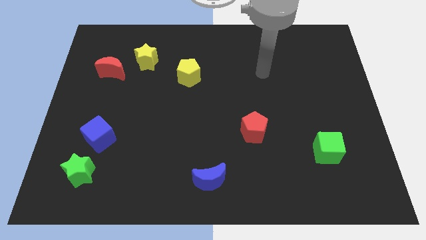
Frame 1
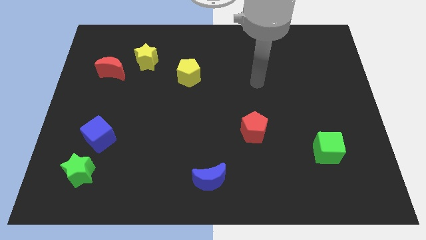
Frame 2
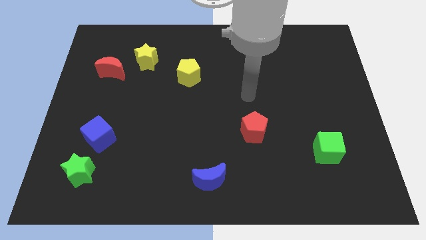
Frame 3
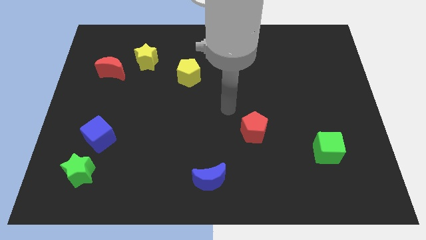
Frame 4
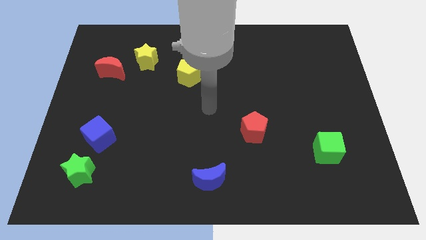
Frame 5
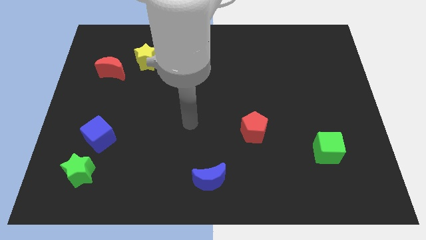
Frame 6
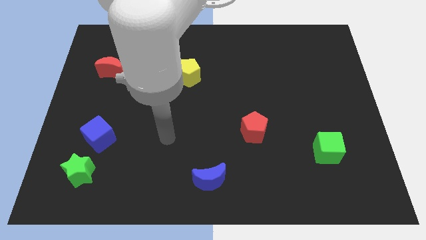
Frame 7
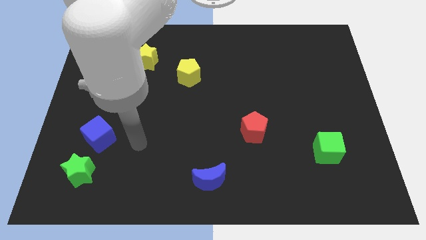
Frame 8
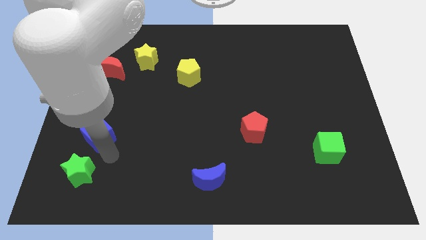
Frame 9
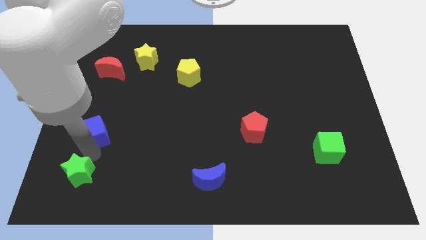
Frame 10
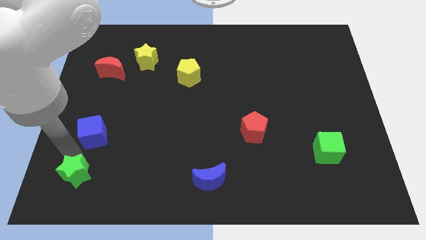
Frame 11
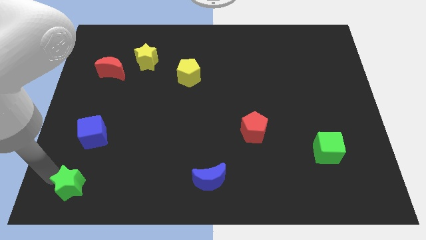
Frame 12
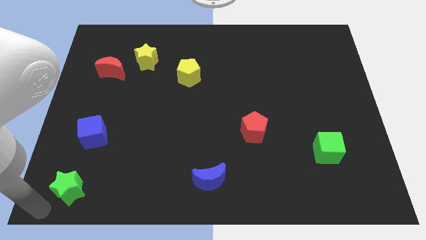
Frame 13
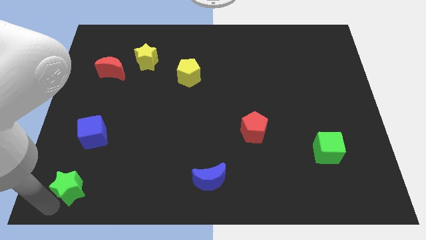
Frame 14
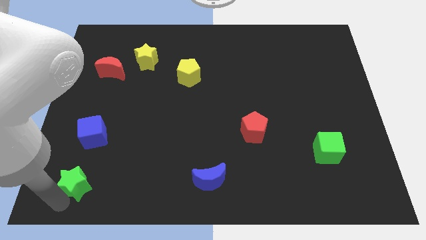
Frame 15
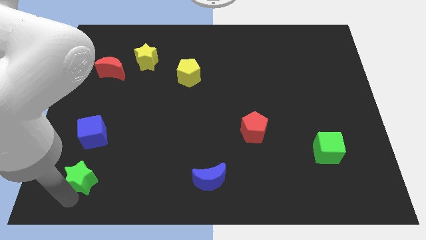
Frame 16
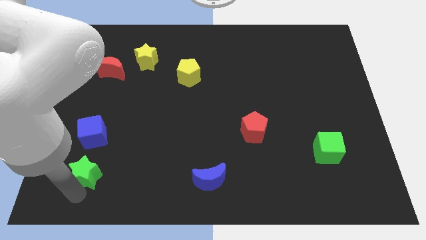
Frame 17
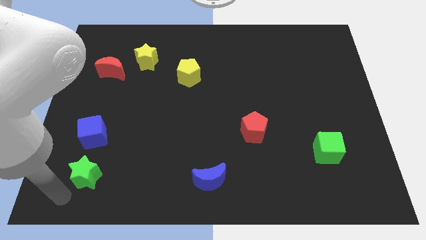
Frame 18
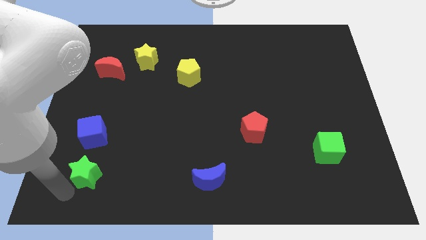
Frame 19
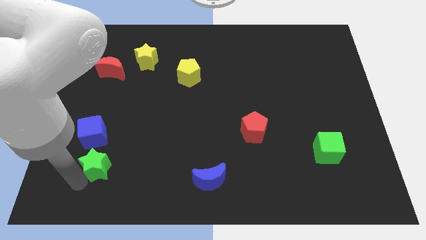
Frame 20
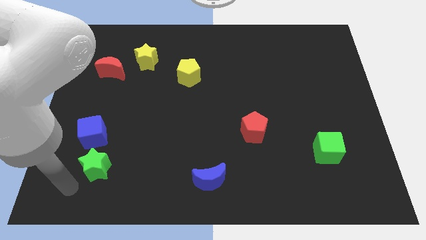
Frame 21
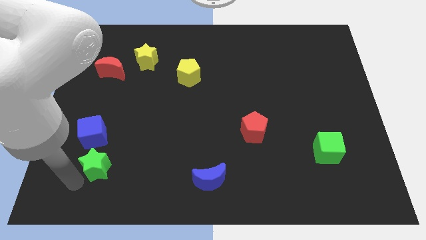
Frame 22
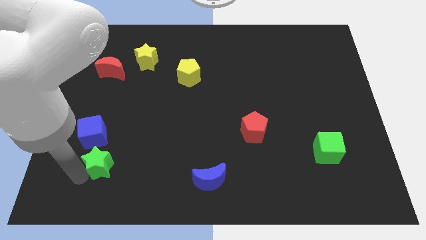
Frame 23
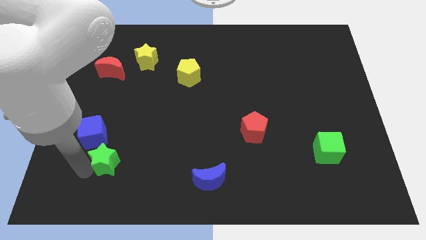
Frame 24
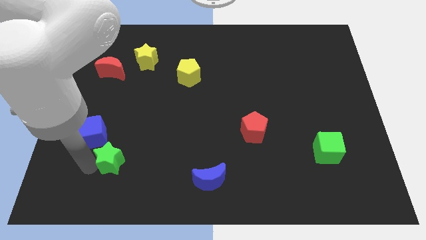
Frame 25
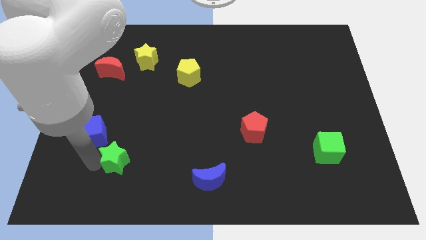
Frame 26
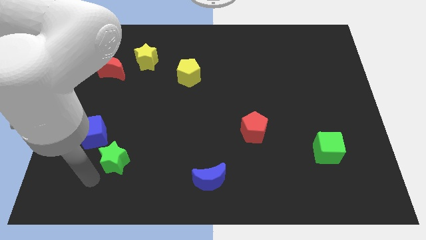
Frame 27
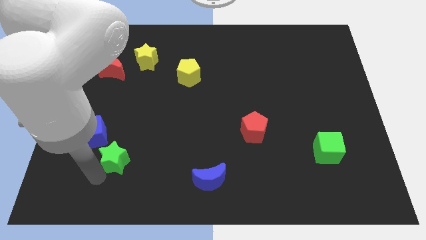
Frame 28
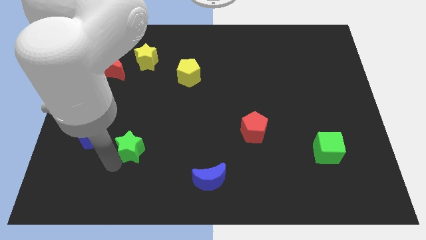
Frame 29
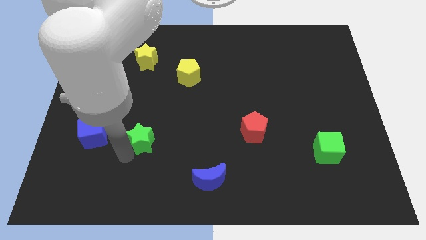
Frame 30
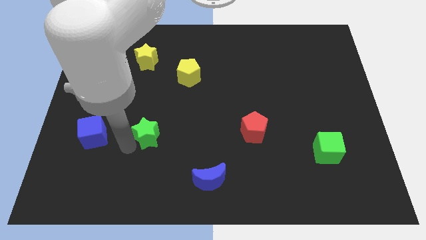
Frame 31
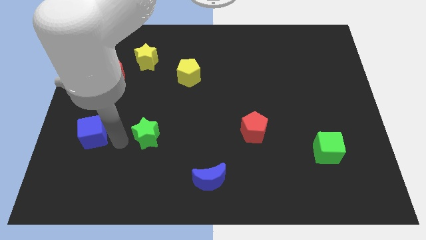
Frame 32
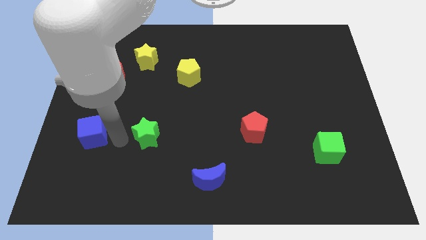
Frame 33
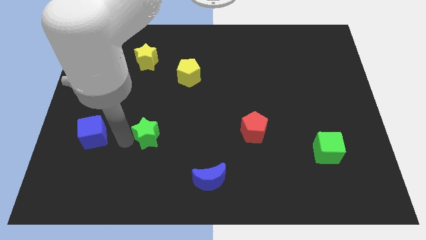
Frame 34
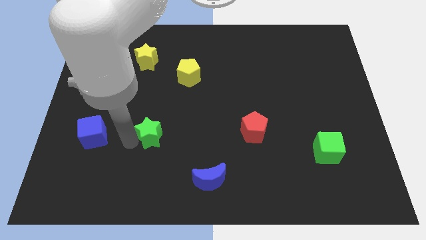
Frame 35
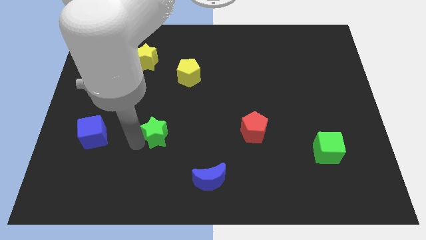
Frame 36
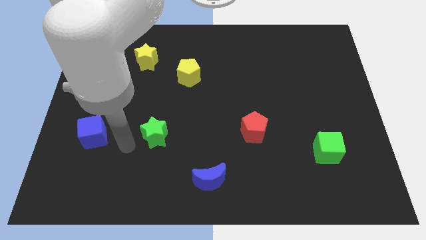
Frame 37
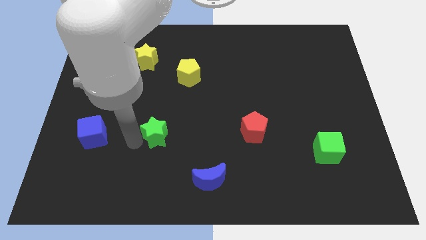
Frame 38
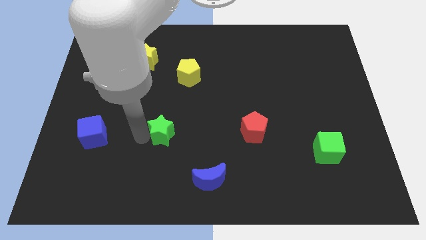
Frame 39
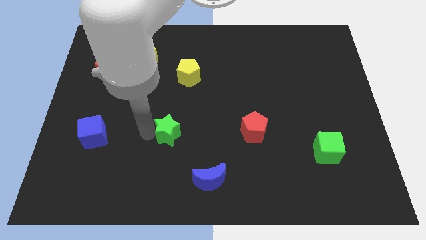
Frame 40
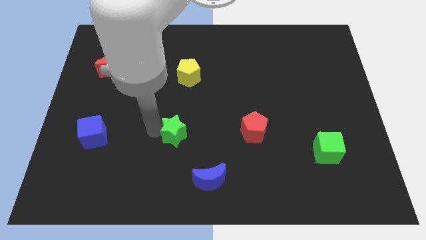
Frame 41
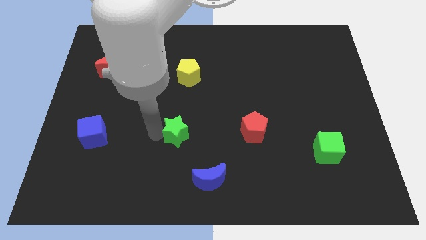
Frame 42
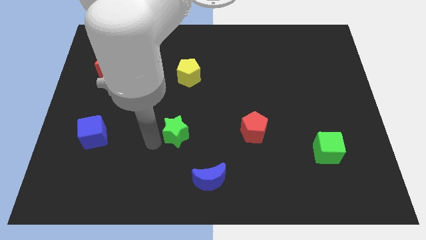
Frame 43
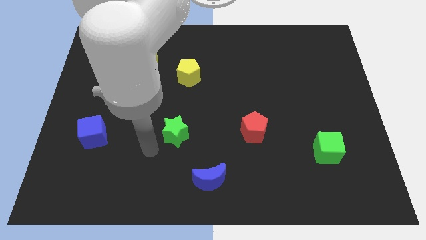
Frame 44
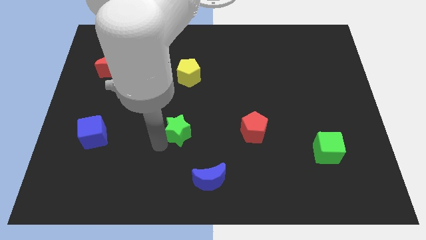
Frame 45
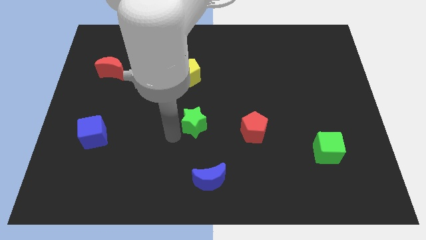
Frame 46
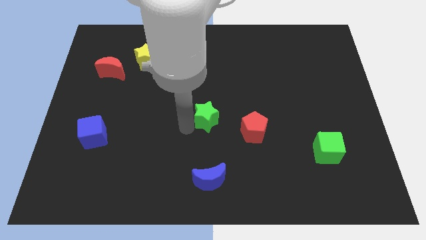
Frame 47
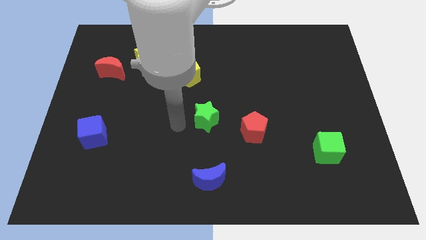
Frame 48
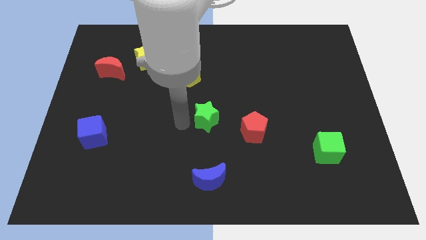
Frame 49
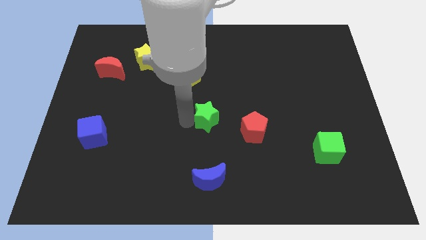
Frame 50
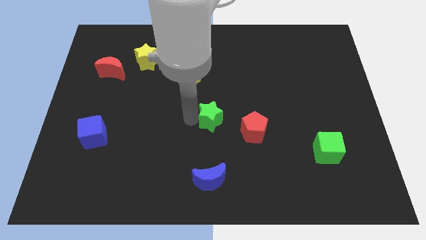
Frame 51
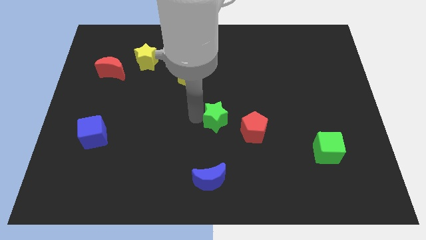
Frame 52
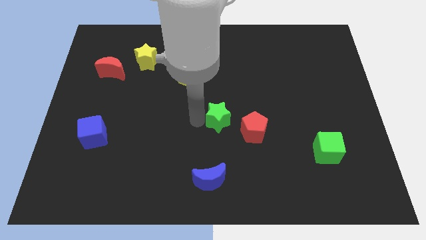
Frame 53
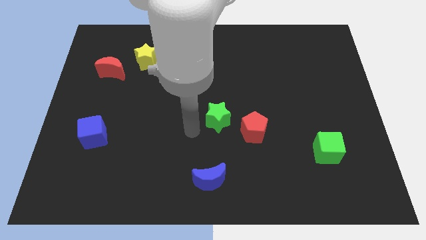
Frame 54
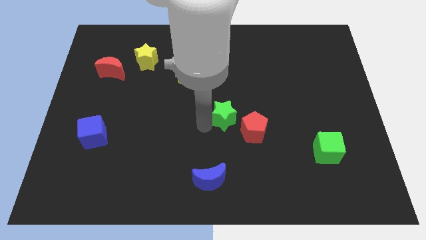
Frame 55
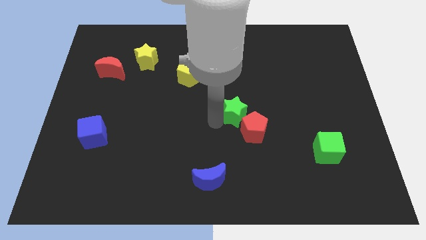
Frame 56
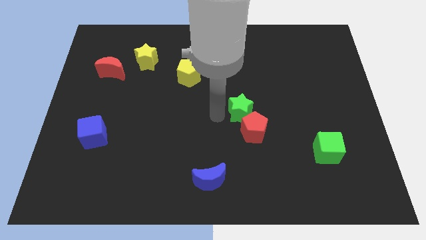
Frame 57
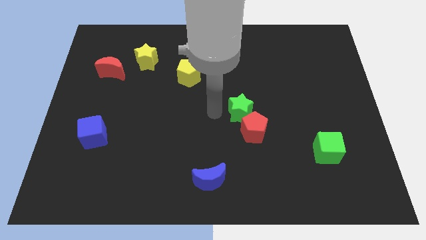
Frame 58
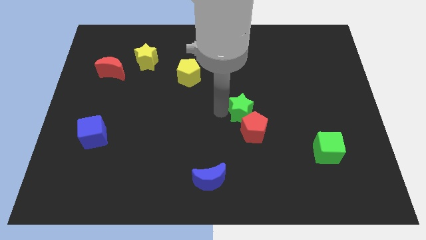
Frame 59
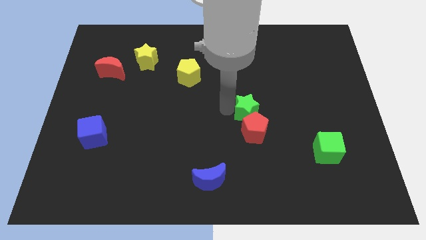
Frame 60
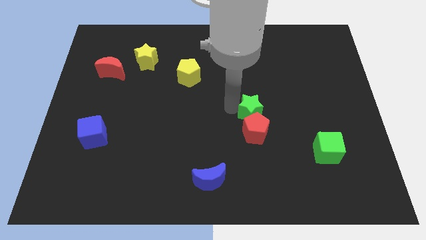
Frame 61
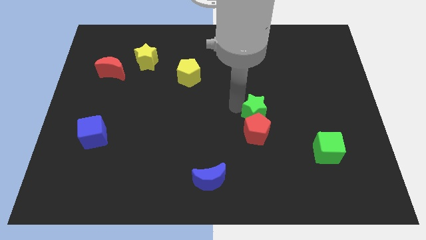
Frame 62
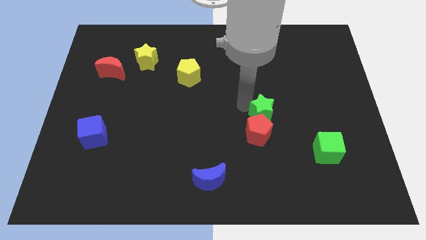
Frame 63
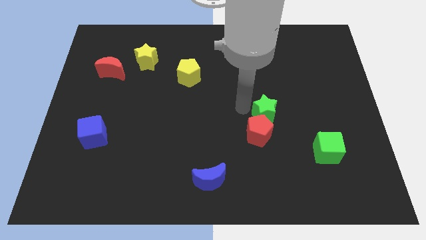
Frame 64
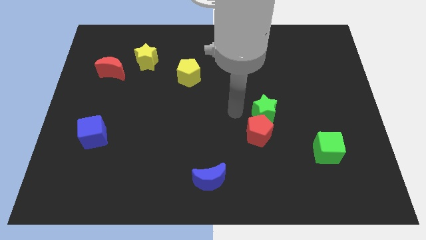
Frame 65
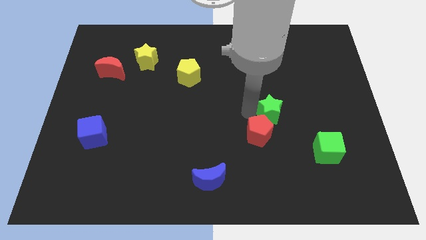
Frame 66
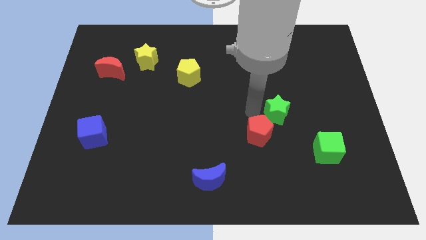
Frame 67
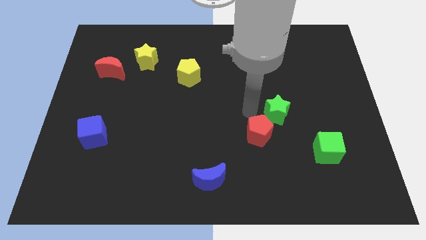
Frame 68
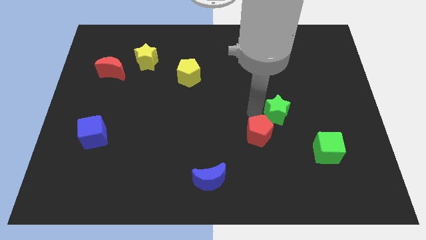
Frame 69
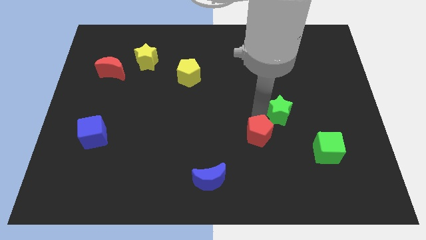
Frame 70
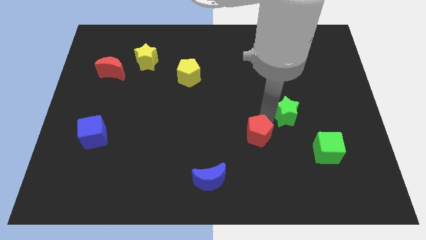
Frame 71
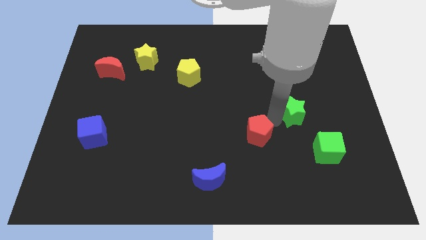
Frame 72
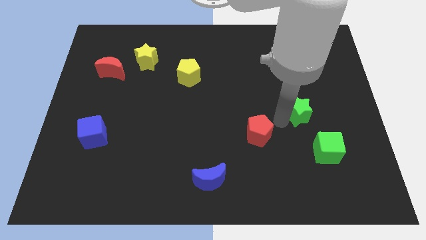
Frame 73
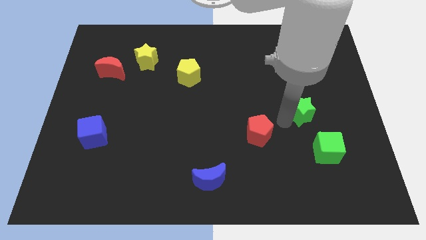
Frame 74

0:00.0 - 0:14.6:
push the green star to the top of the green cube

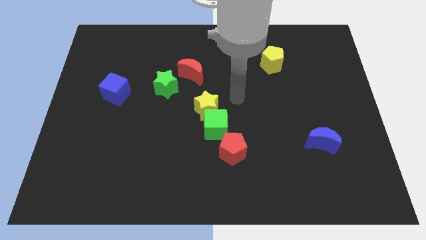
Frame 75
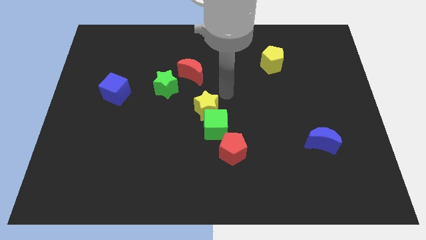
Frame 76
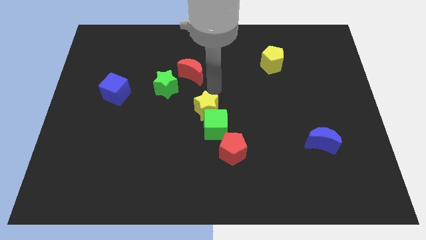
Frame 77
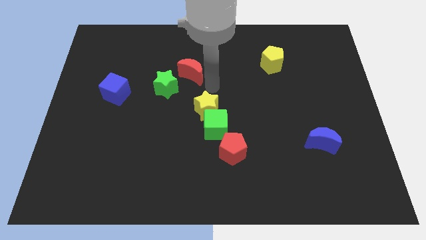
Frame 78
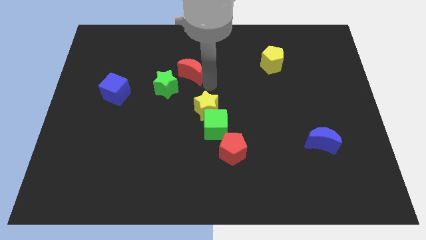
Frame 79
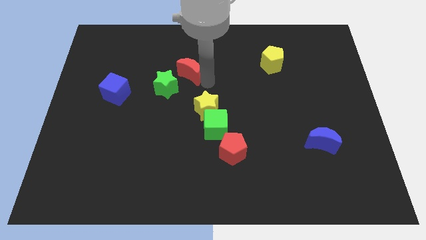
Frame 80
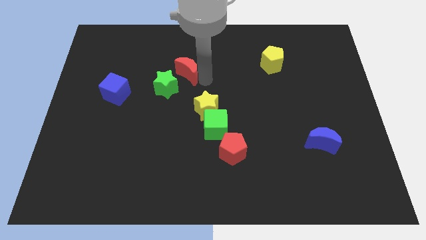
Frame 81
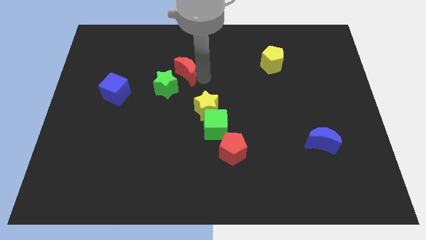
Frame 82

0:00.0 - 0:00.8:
slide the red moon to the top of the green star
